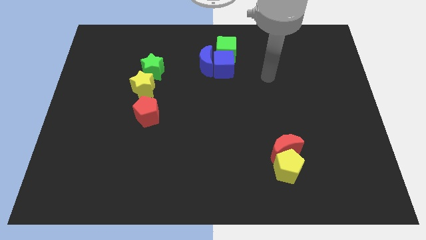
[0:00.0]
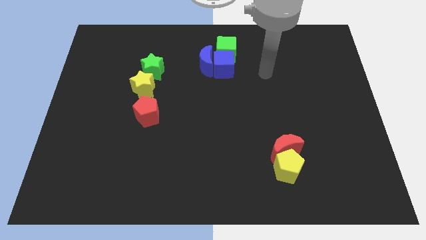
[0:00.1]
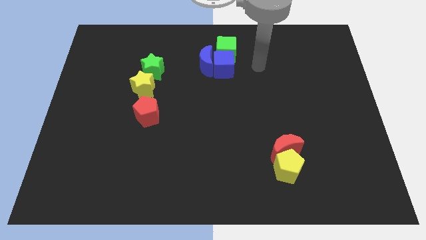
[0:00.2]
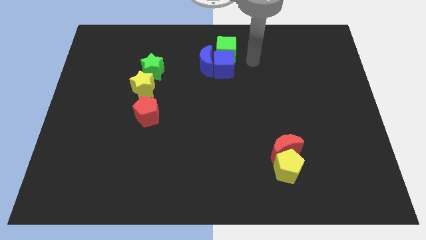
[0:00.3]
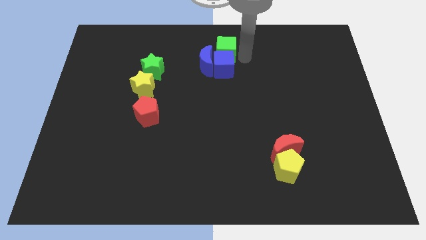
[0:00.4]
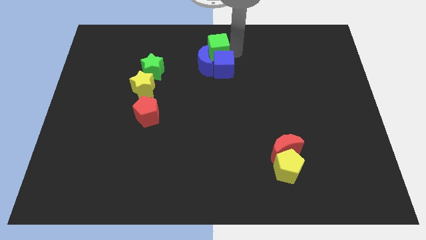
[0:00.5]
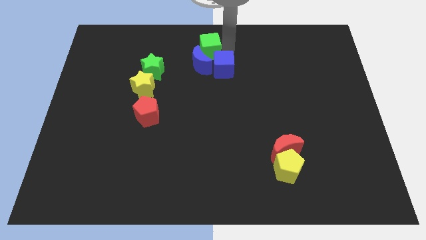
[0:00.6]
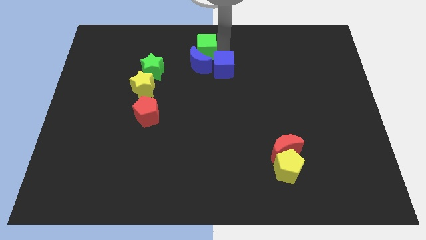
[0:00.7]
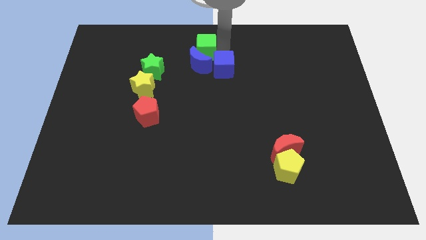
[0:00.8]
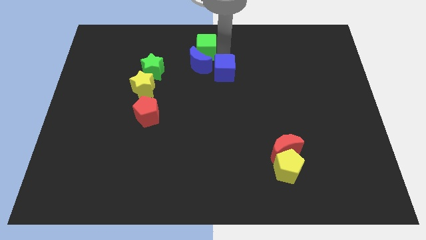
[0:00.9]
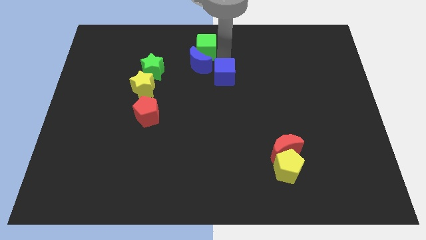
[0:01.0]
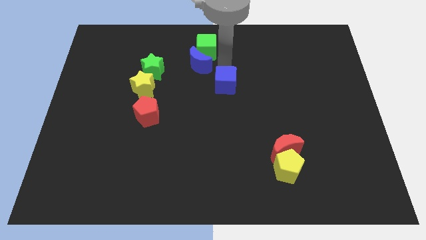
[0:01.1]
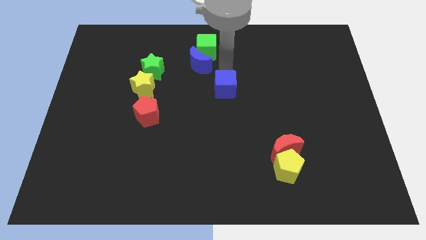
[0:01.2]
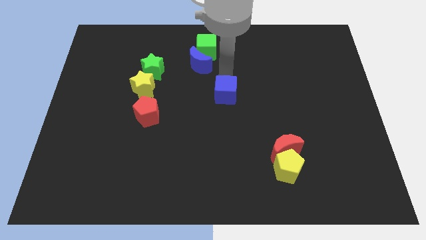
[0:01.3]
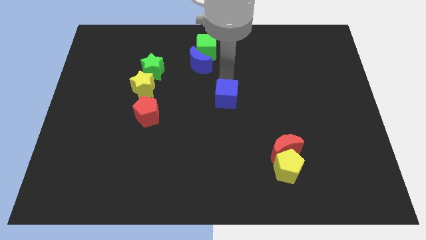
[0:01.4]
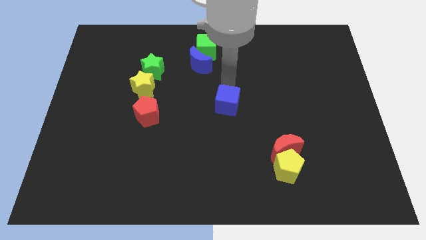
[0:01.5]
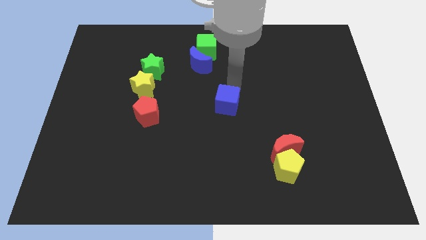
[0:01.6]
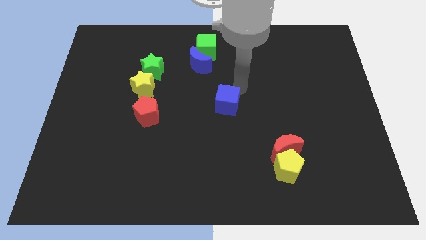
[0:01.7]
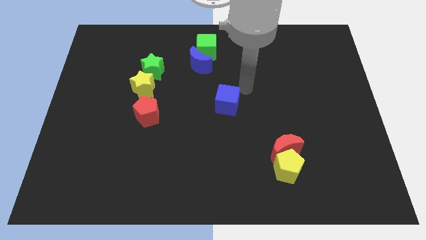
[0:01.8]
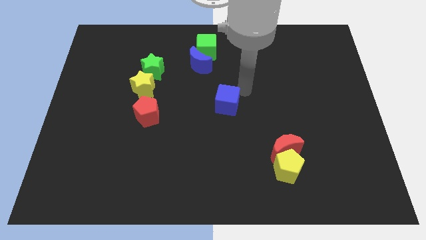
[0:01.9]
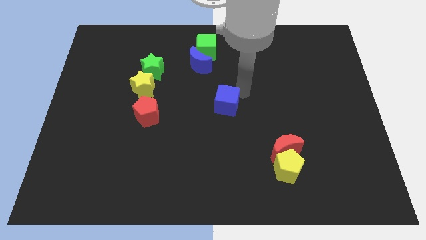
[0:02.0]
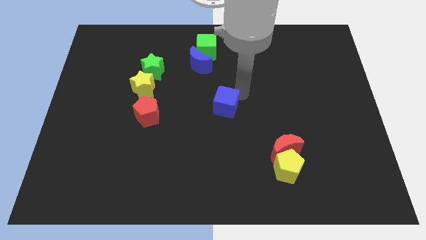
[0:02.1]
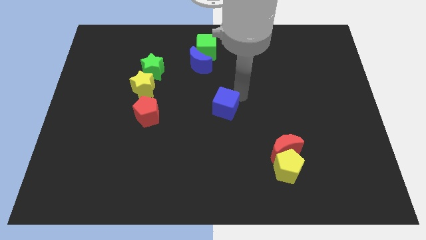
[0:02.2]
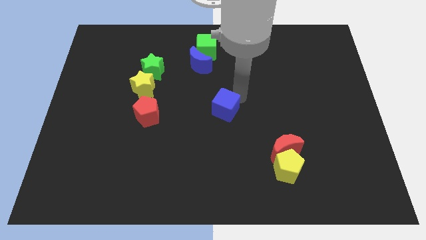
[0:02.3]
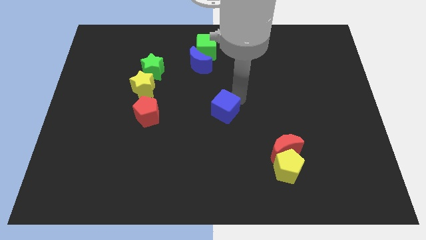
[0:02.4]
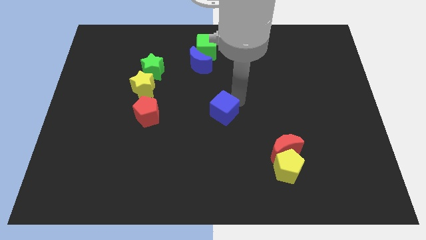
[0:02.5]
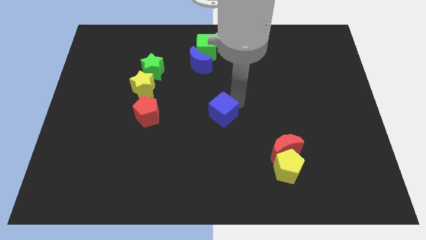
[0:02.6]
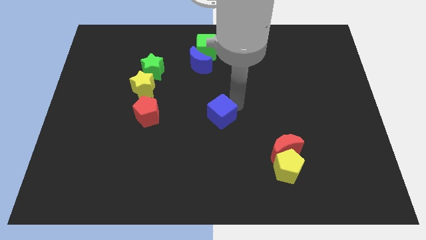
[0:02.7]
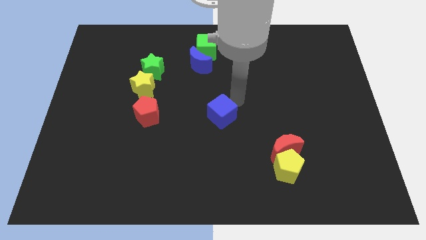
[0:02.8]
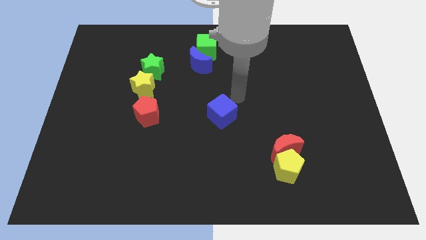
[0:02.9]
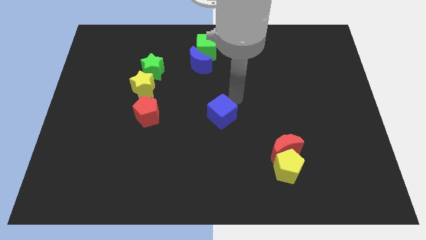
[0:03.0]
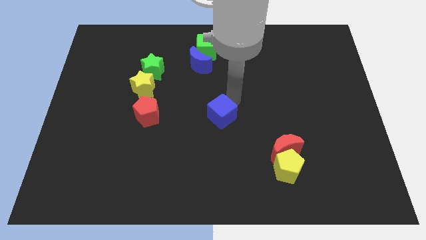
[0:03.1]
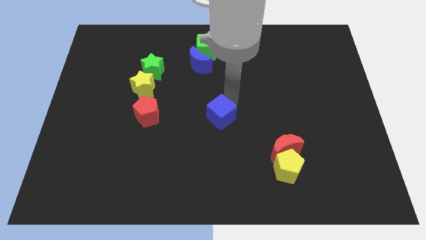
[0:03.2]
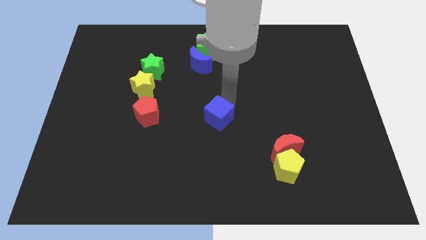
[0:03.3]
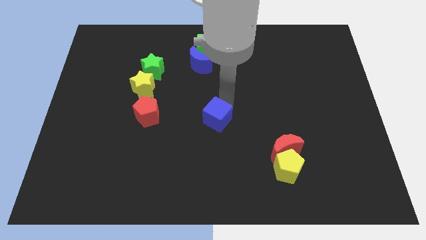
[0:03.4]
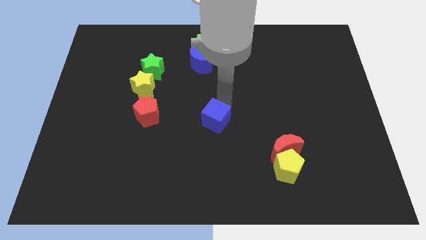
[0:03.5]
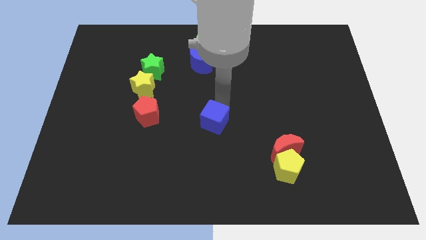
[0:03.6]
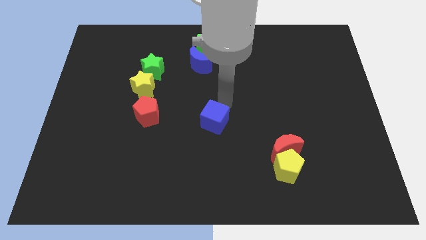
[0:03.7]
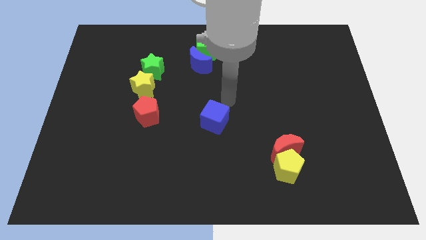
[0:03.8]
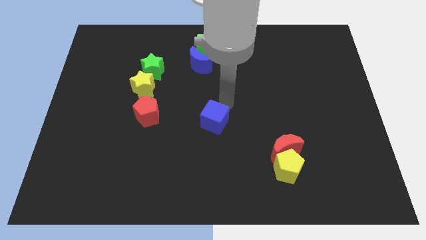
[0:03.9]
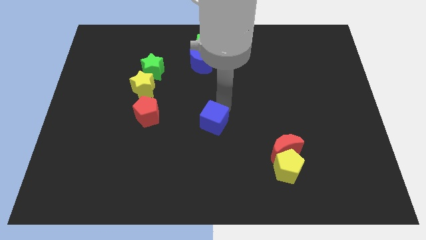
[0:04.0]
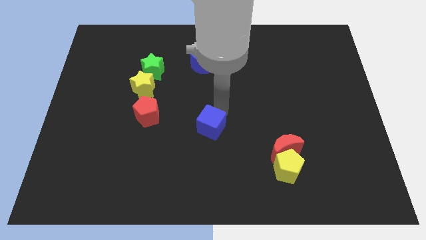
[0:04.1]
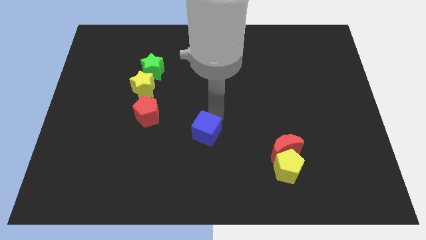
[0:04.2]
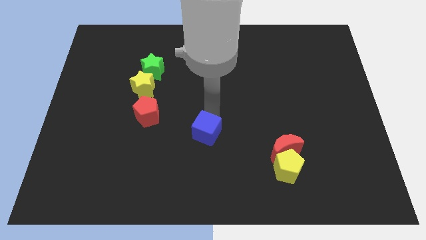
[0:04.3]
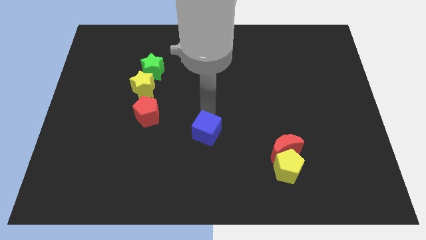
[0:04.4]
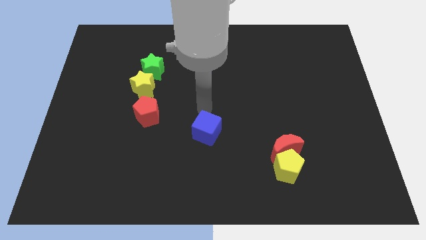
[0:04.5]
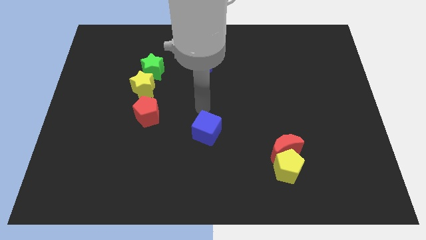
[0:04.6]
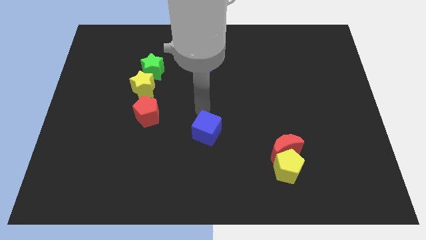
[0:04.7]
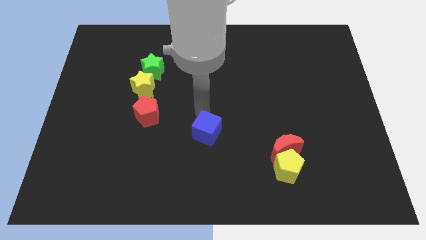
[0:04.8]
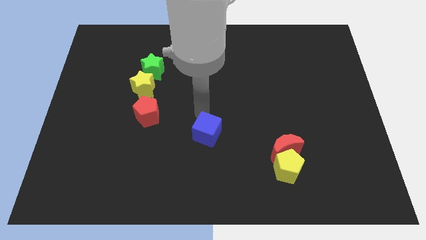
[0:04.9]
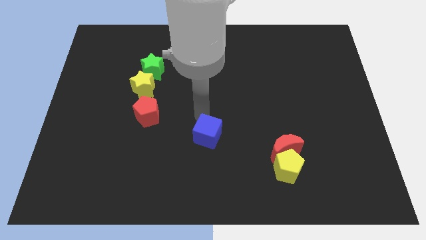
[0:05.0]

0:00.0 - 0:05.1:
push the blue cube down

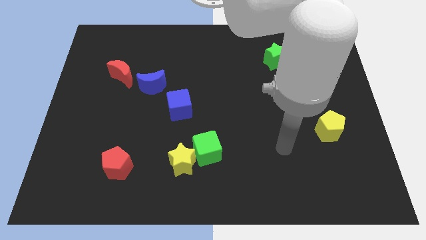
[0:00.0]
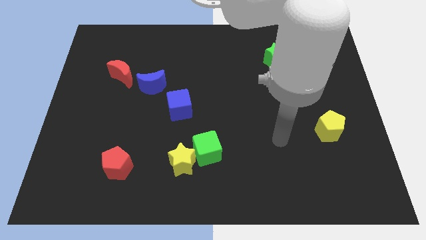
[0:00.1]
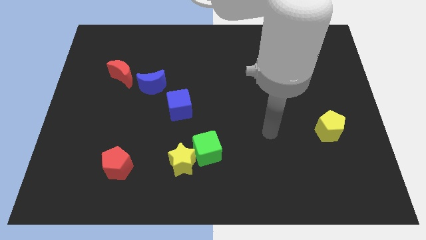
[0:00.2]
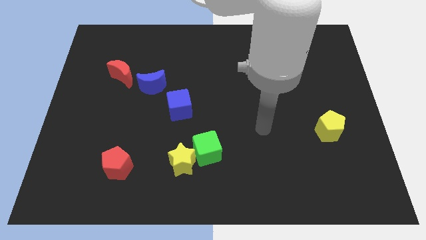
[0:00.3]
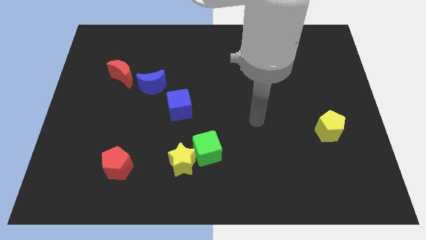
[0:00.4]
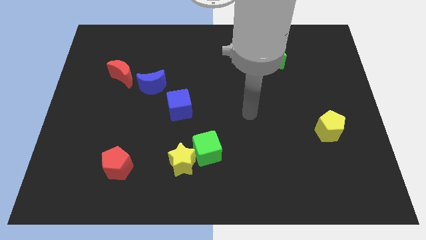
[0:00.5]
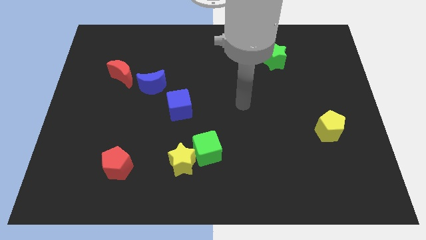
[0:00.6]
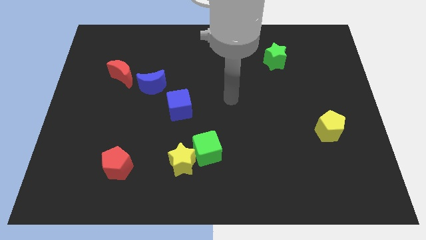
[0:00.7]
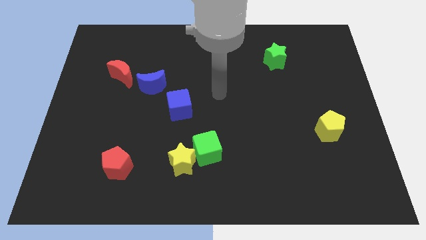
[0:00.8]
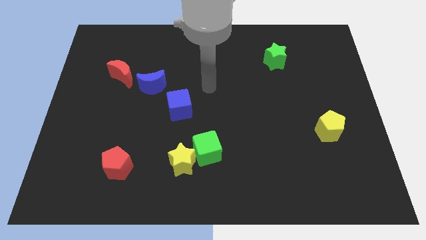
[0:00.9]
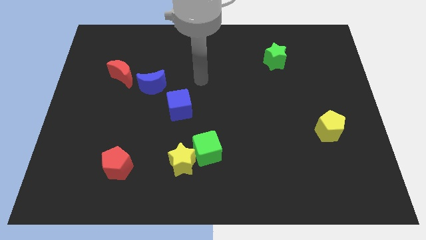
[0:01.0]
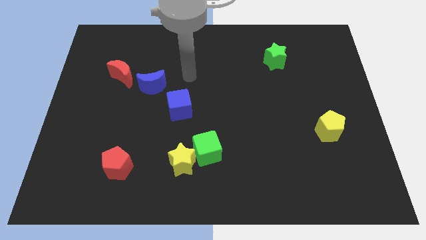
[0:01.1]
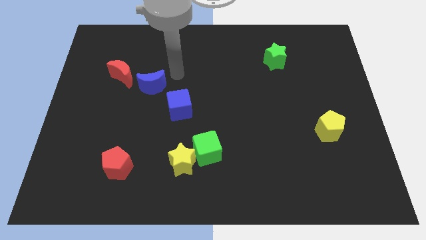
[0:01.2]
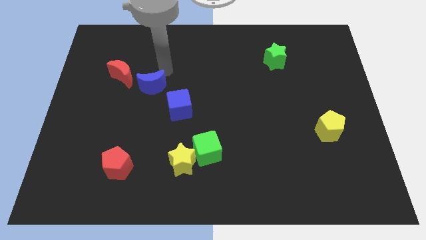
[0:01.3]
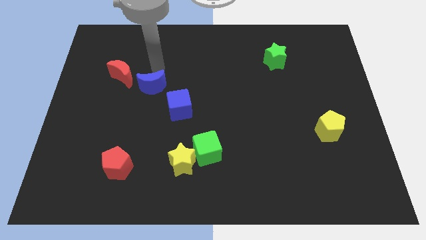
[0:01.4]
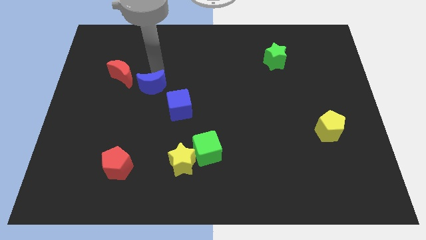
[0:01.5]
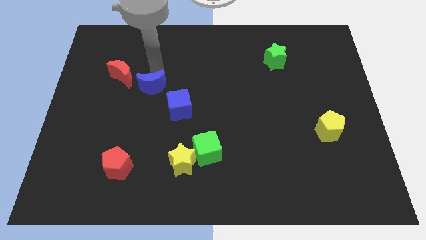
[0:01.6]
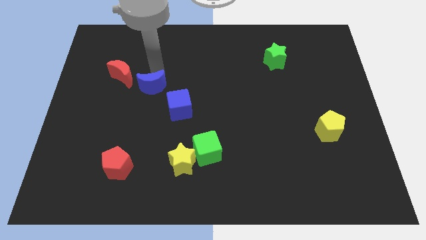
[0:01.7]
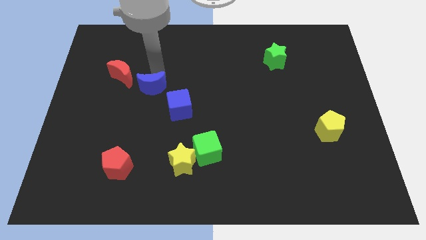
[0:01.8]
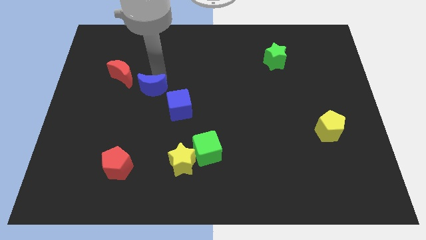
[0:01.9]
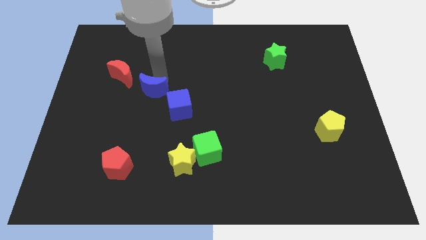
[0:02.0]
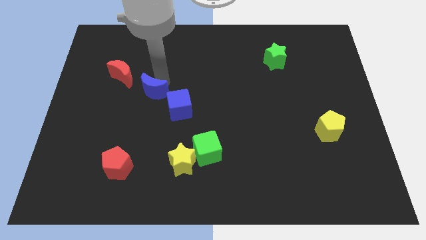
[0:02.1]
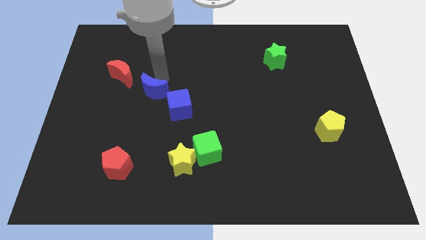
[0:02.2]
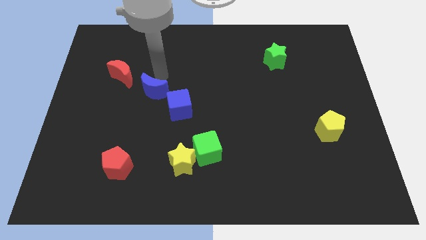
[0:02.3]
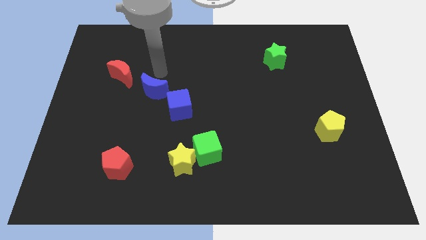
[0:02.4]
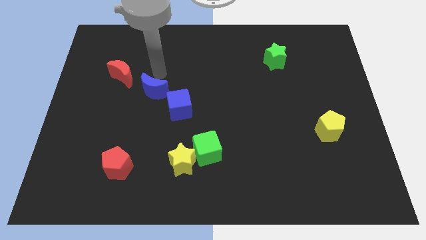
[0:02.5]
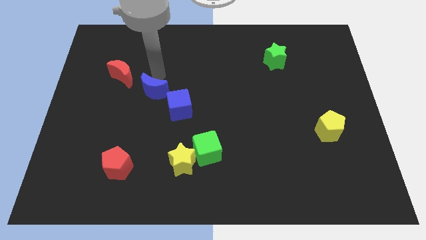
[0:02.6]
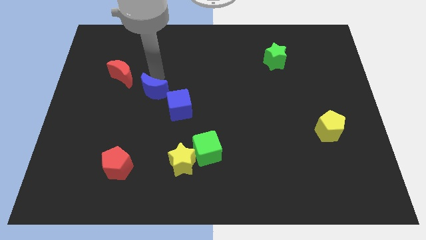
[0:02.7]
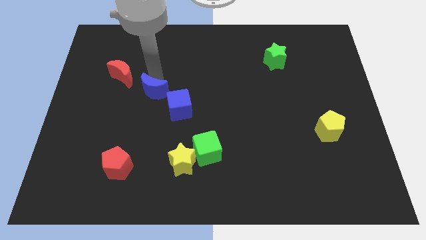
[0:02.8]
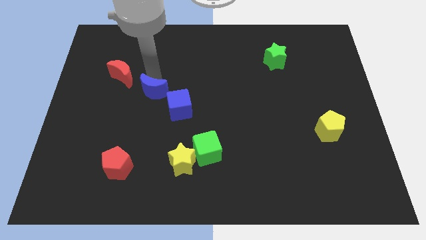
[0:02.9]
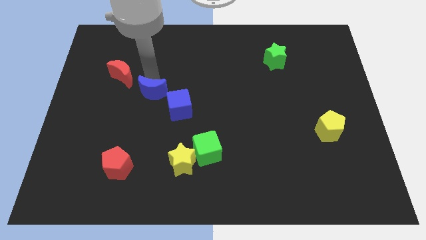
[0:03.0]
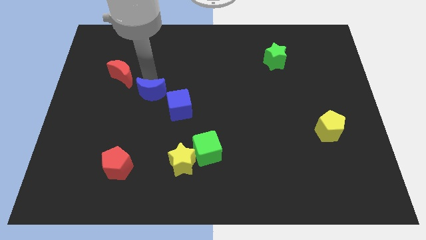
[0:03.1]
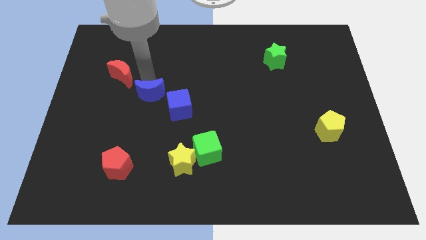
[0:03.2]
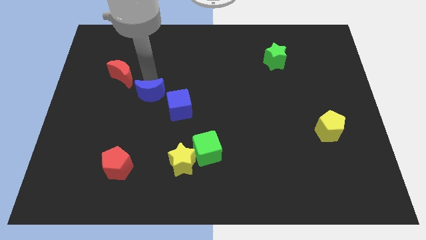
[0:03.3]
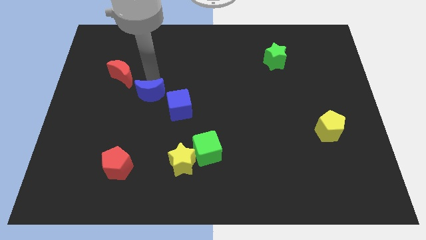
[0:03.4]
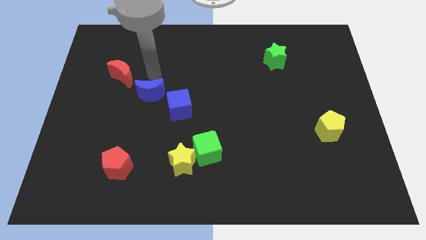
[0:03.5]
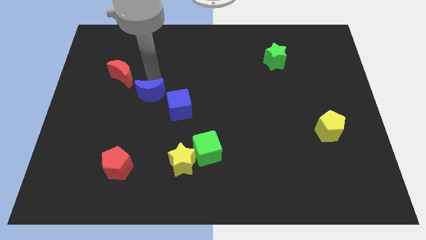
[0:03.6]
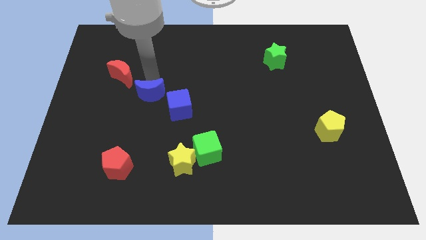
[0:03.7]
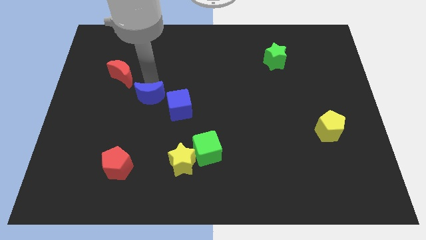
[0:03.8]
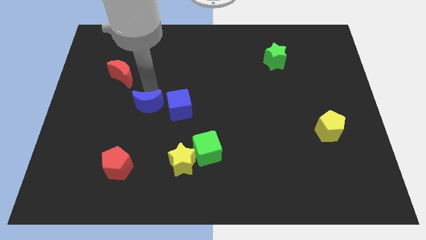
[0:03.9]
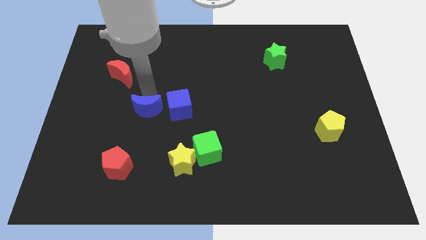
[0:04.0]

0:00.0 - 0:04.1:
slide the blue moon a little bit downwards
